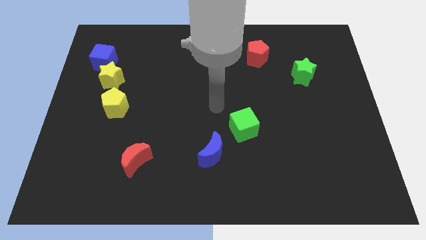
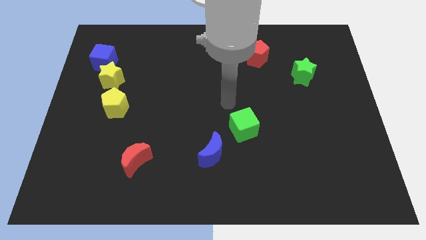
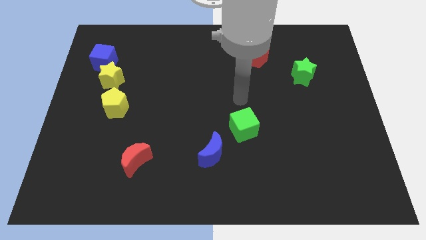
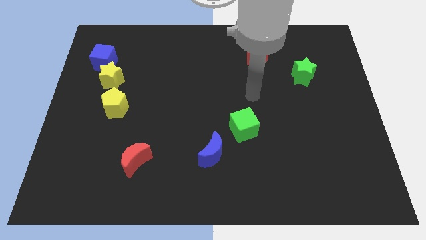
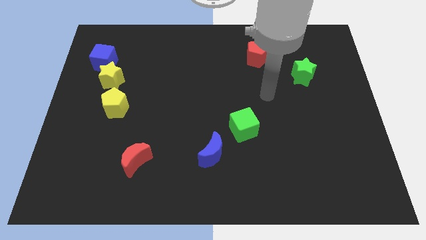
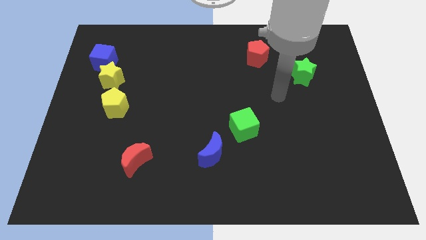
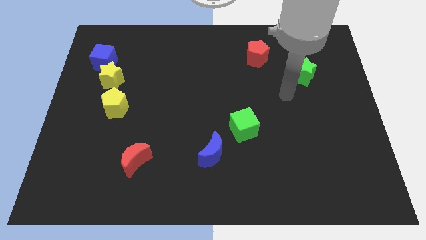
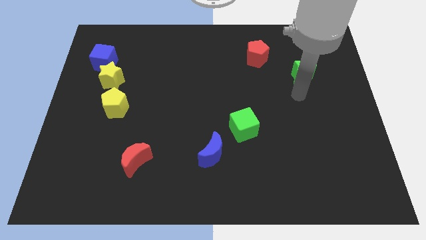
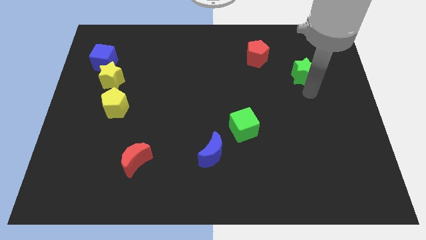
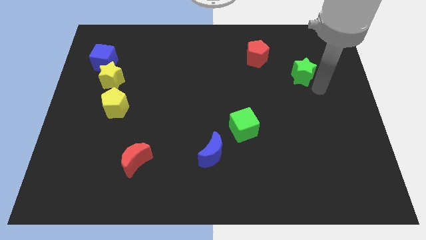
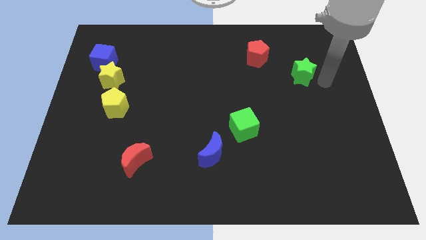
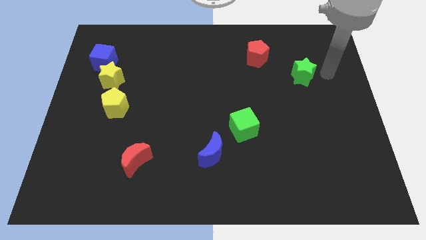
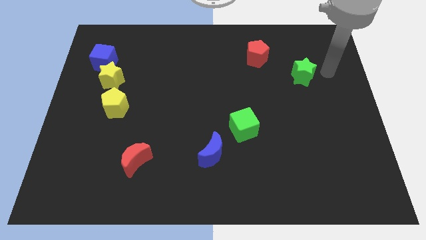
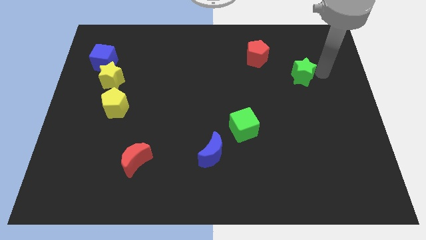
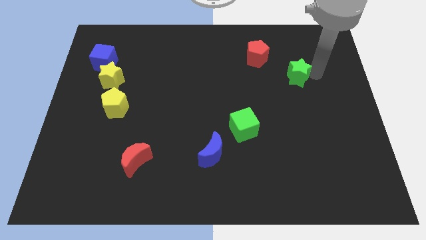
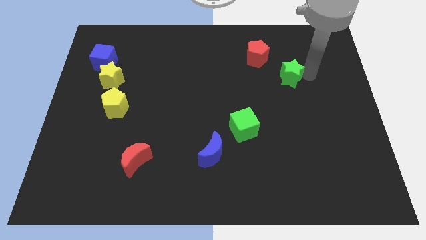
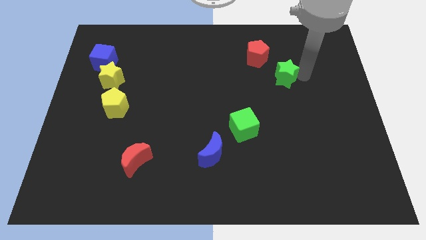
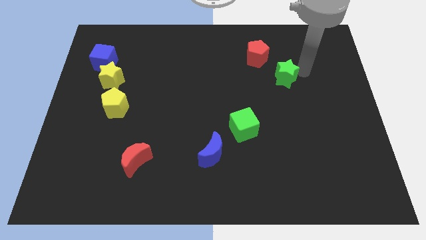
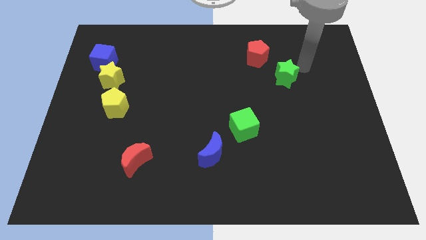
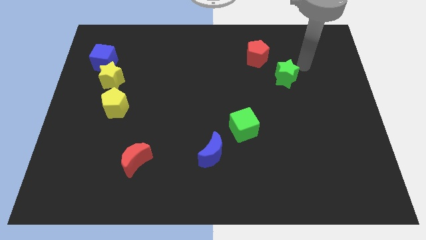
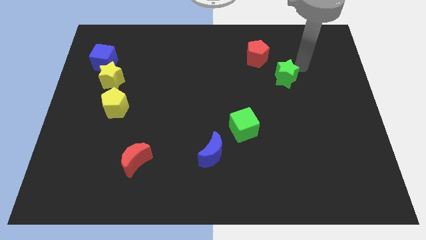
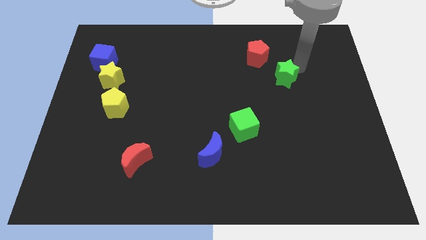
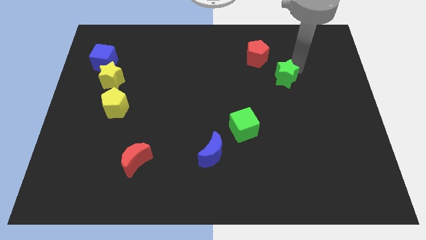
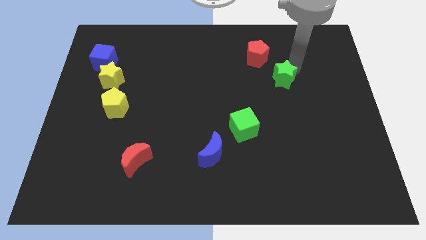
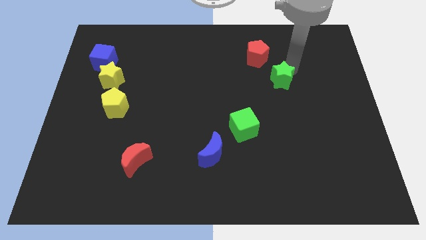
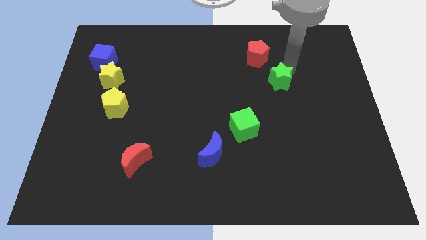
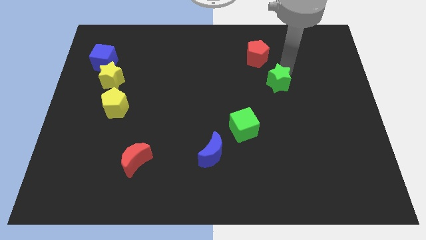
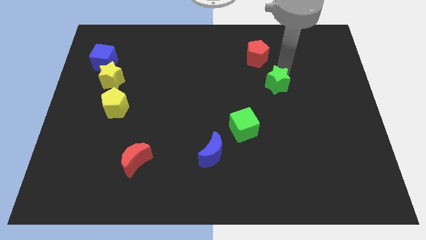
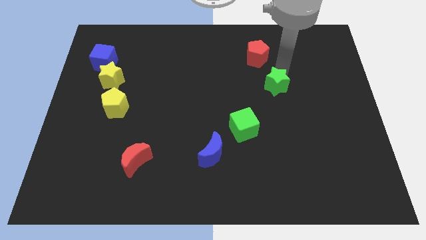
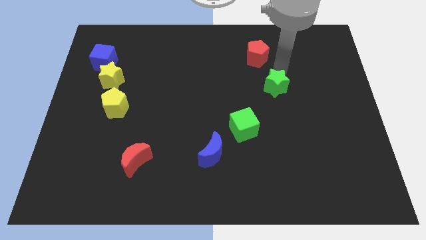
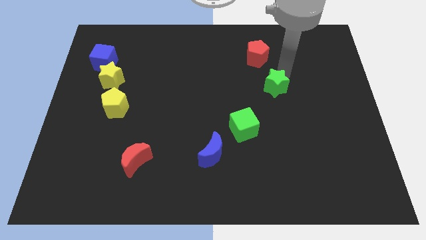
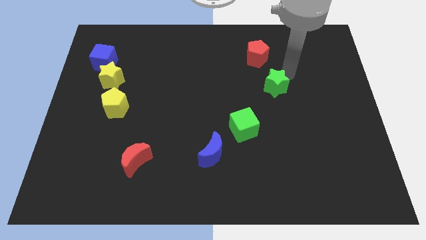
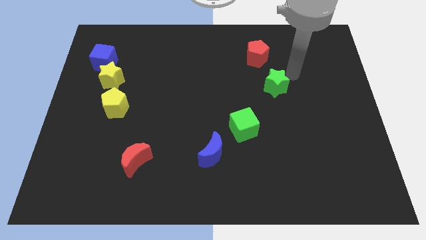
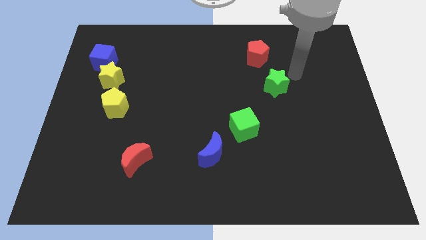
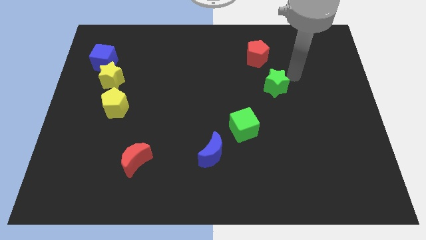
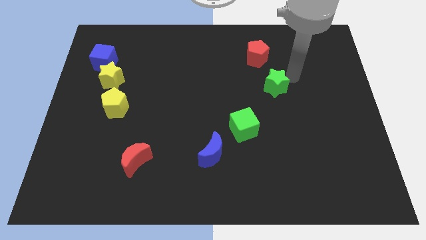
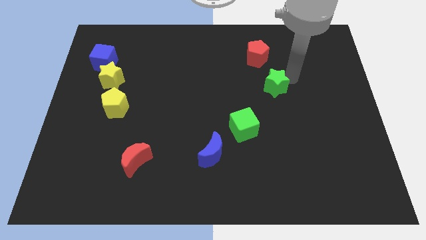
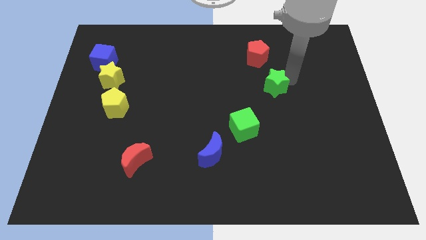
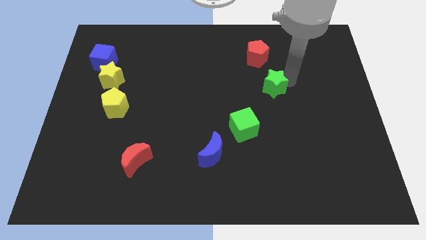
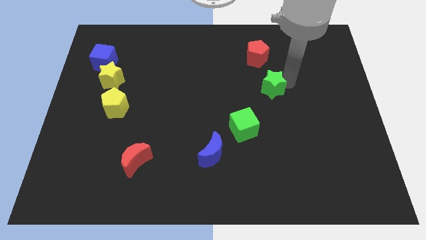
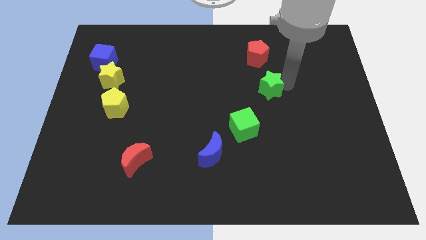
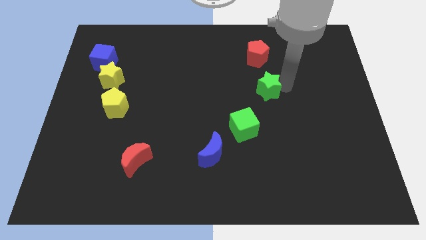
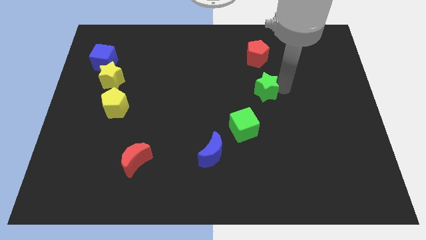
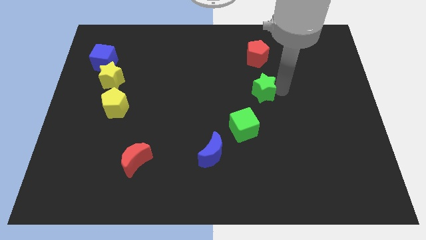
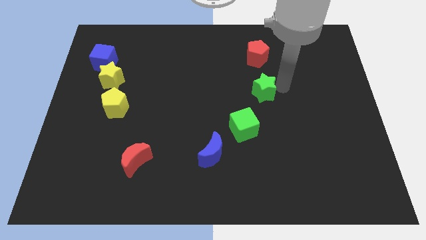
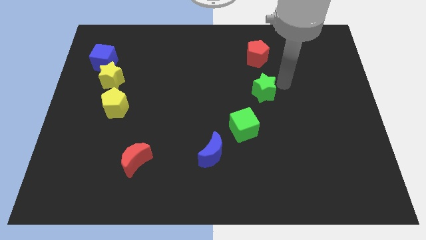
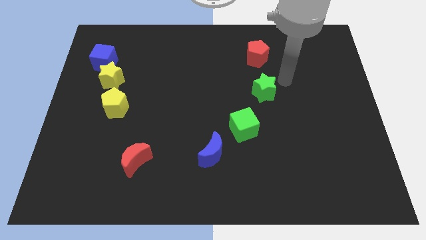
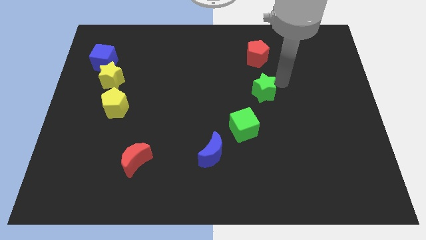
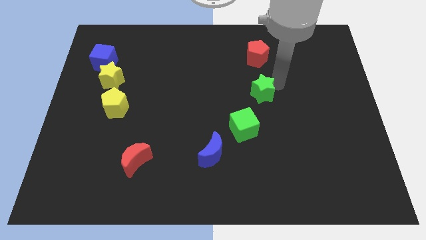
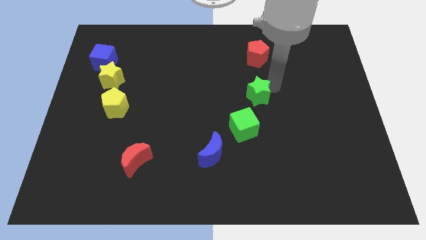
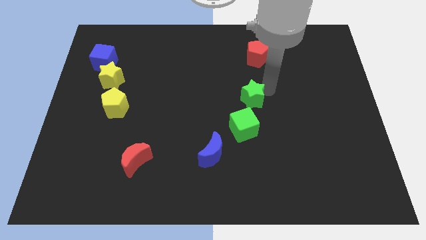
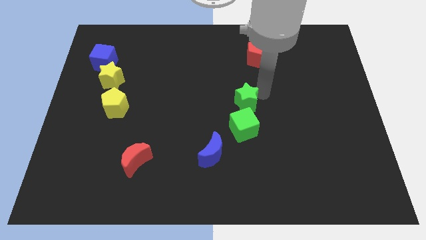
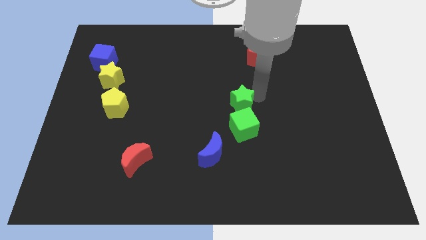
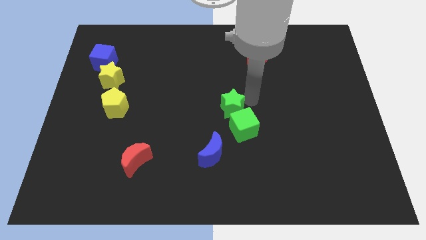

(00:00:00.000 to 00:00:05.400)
slide the green star to the top side of the blue moon

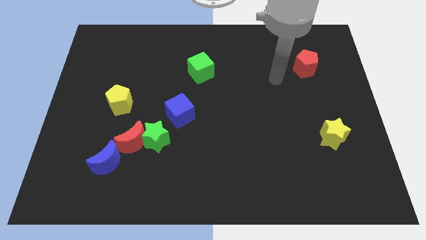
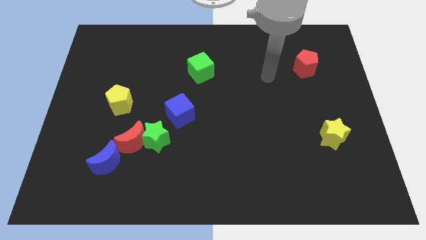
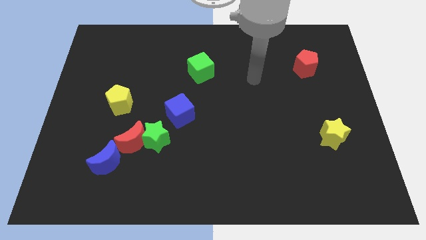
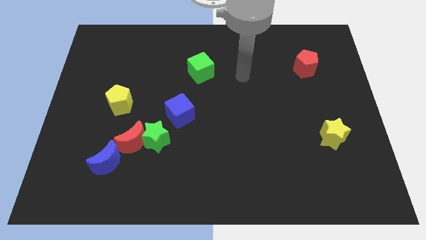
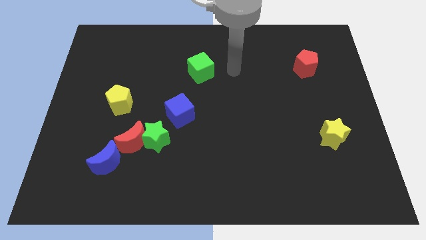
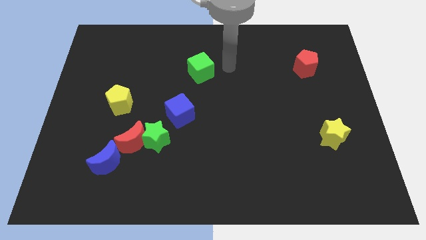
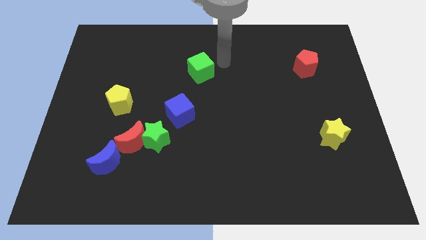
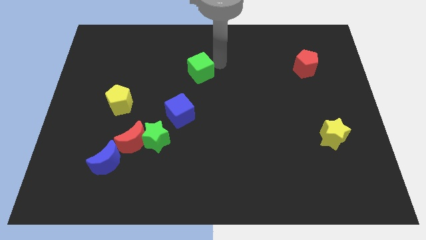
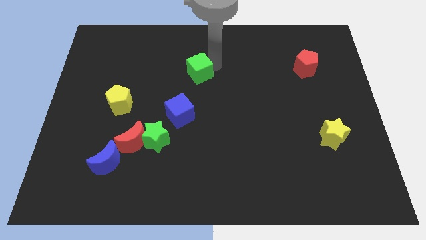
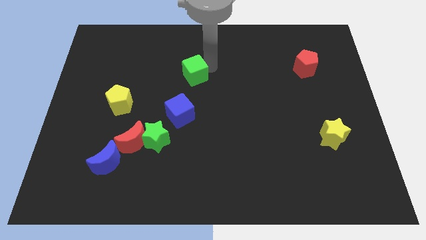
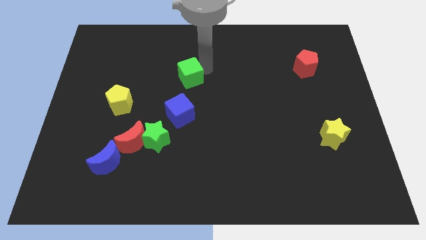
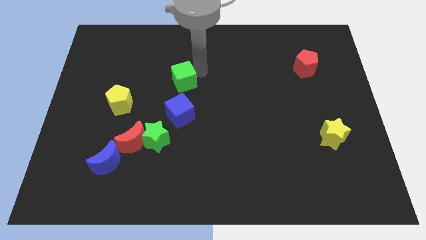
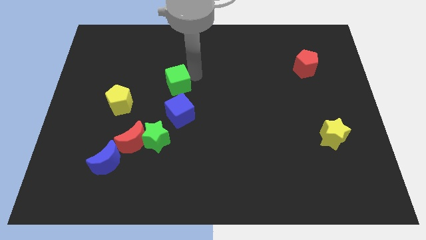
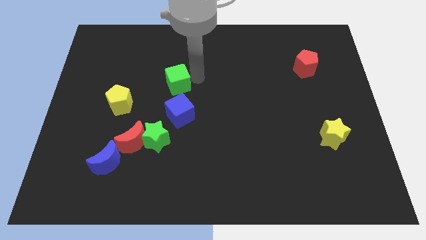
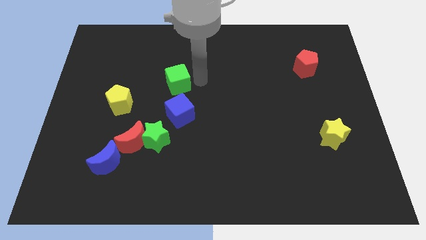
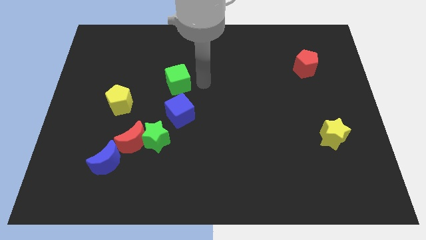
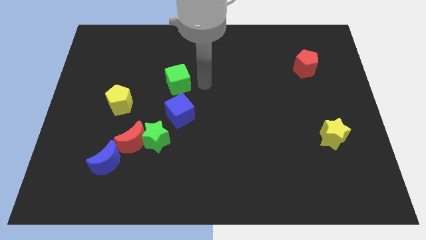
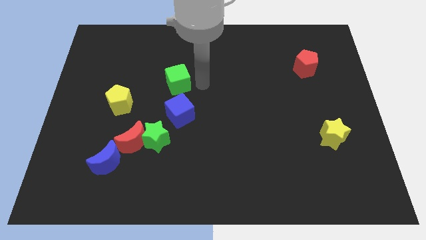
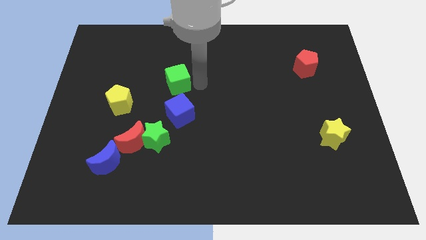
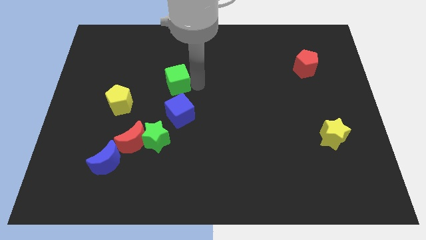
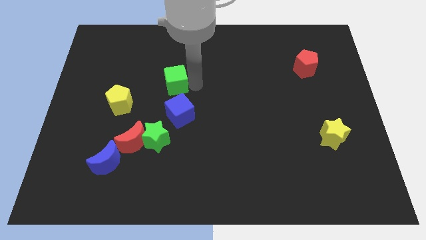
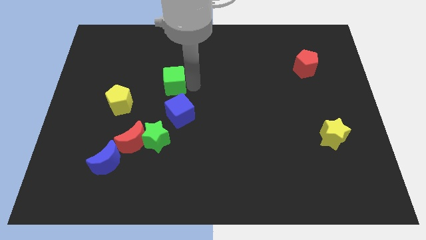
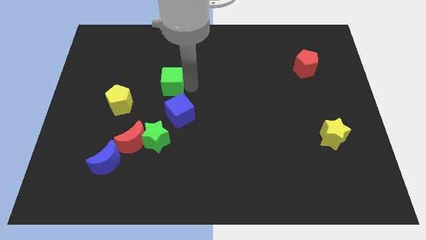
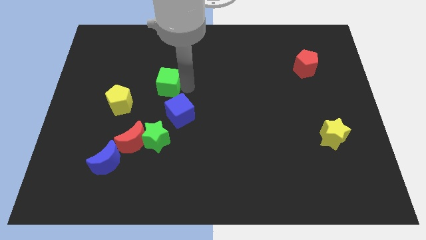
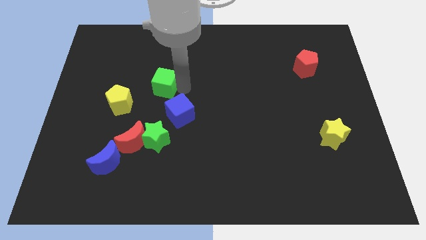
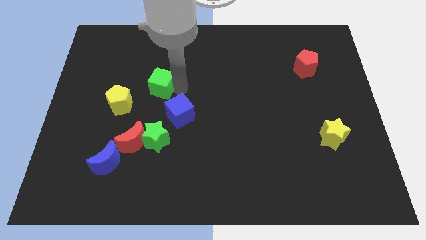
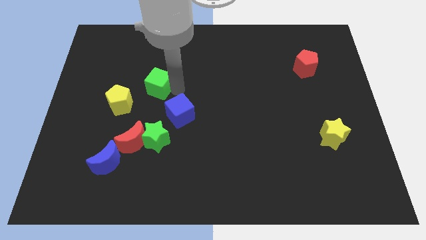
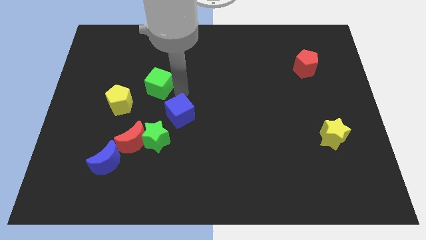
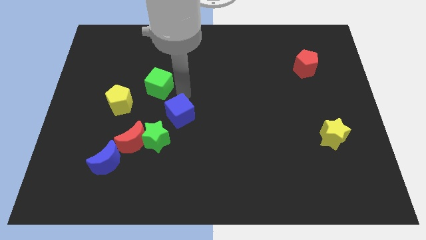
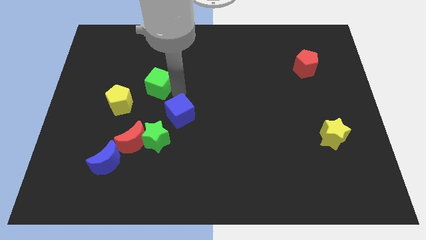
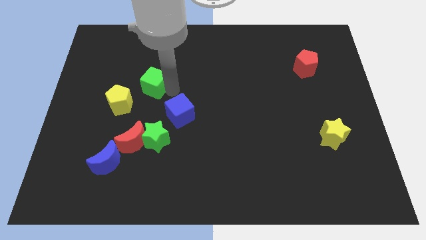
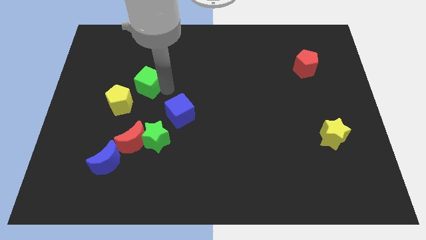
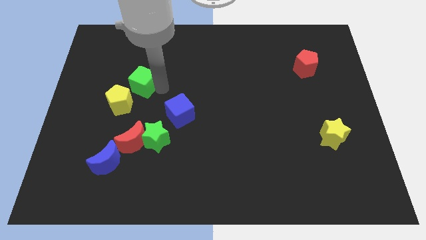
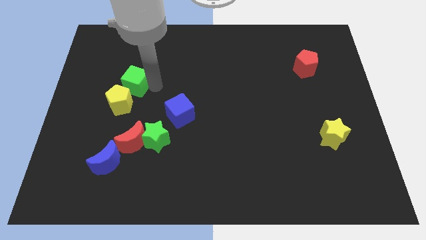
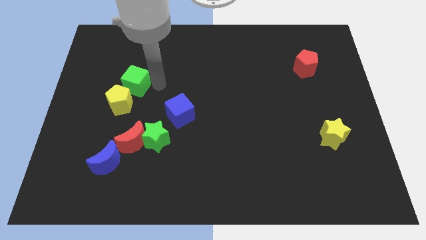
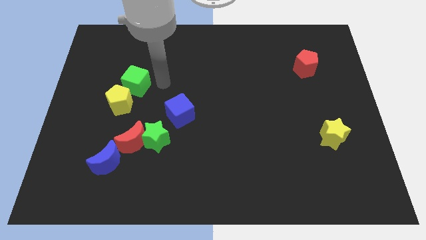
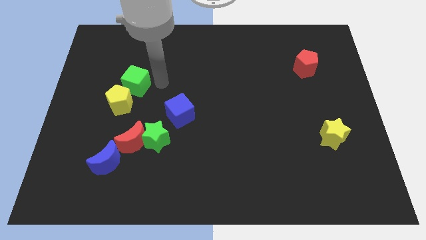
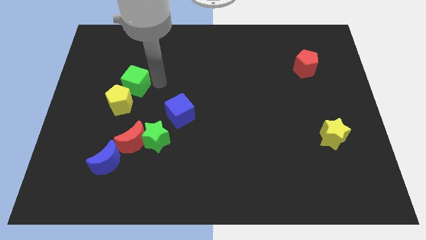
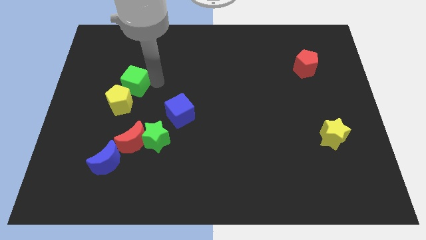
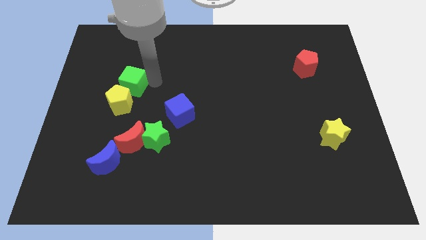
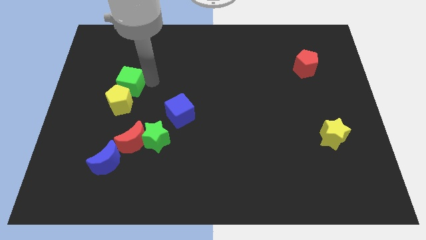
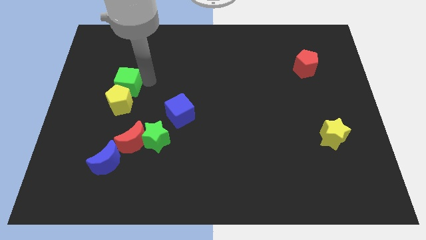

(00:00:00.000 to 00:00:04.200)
move the green cube to the top left of the yellow pentagon
